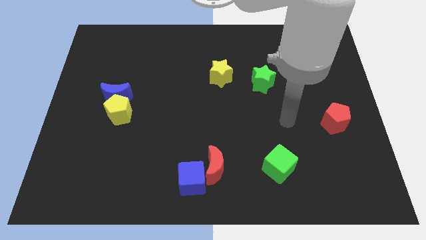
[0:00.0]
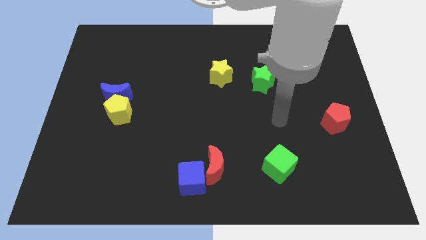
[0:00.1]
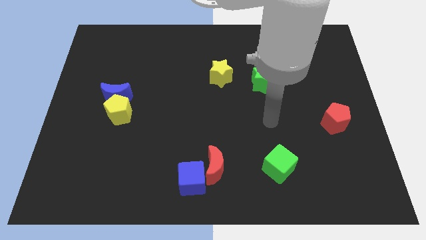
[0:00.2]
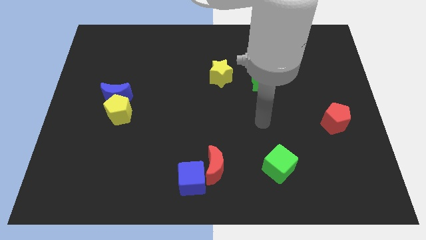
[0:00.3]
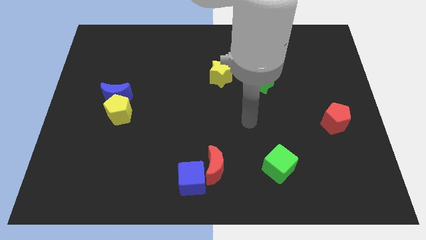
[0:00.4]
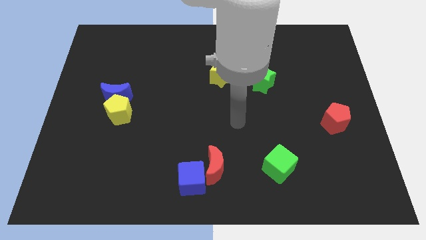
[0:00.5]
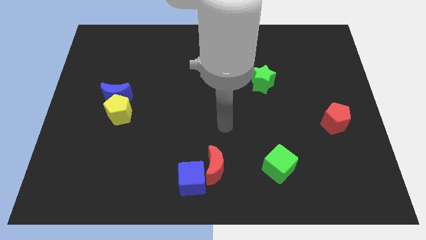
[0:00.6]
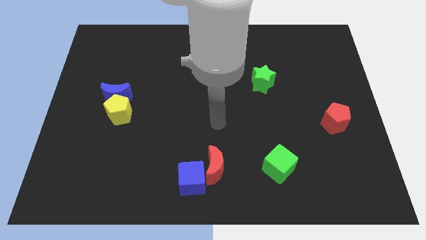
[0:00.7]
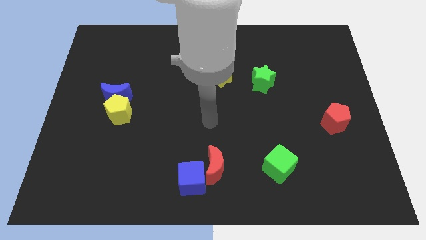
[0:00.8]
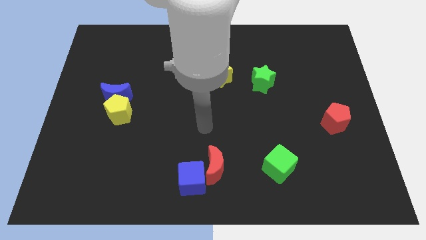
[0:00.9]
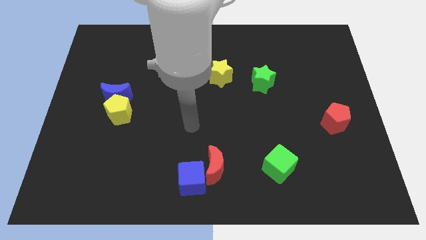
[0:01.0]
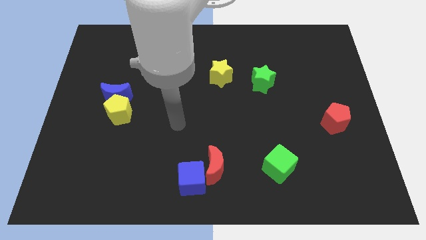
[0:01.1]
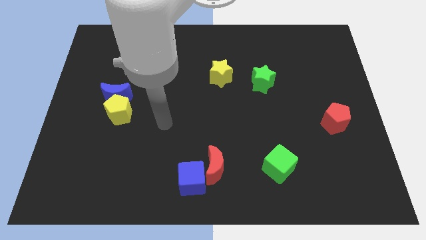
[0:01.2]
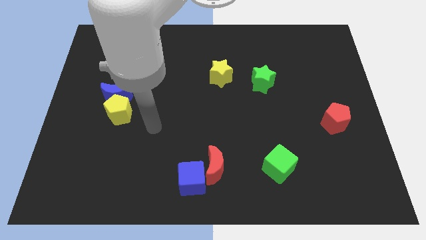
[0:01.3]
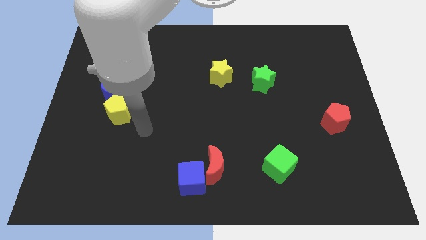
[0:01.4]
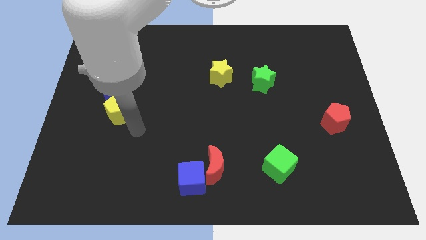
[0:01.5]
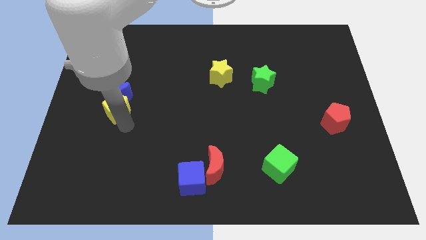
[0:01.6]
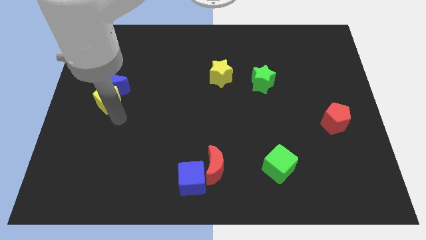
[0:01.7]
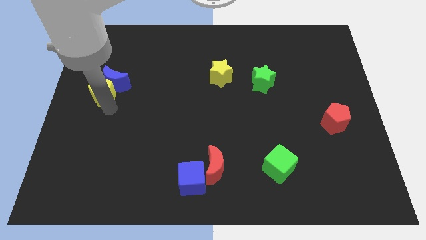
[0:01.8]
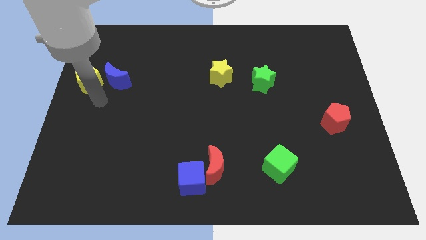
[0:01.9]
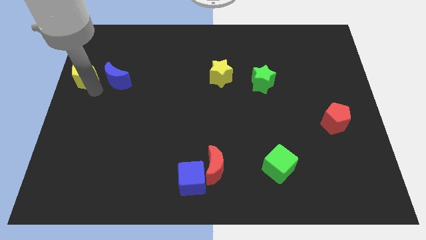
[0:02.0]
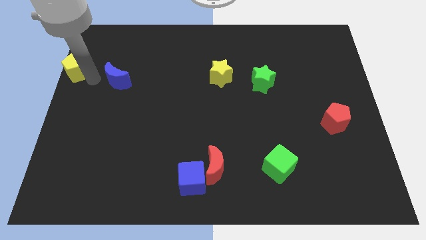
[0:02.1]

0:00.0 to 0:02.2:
move the blue moon away from the yellow pentagon

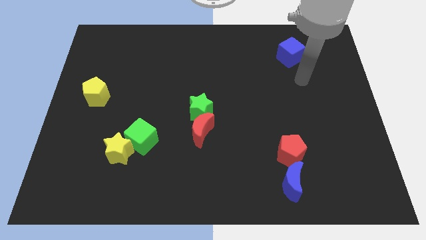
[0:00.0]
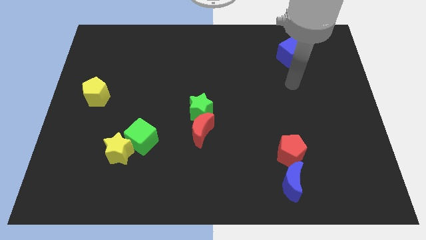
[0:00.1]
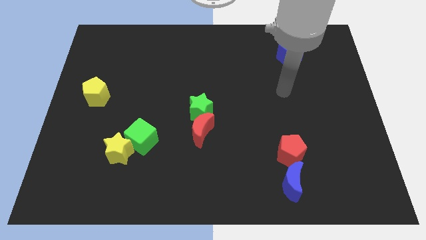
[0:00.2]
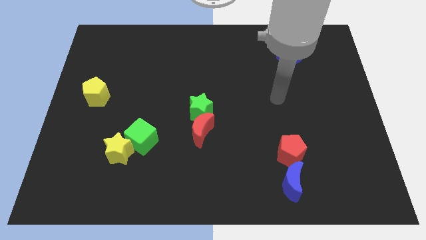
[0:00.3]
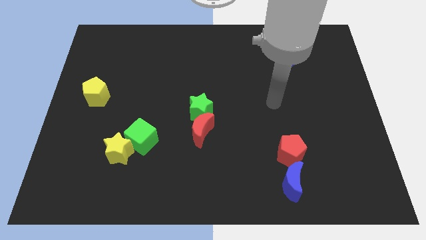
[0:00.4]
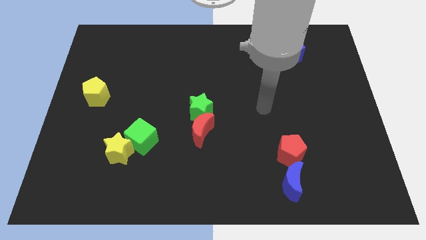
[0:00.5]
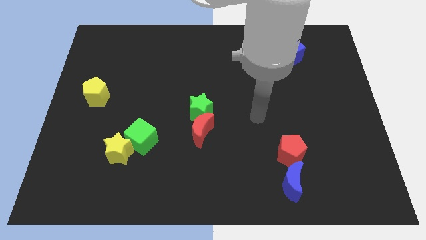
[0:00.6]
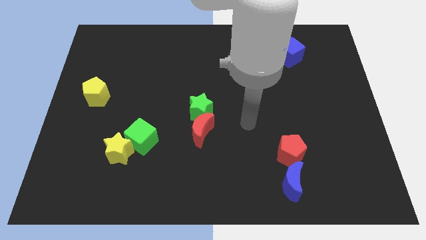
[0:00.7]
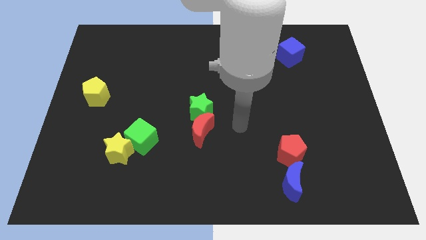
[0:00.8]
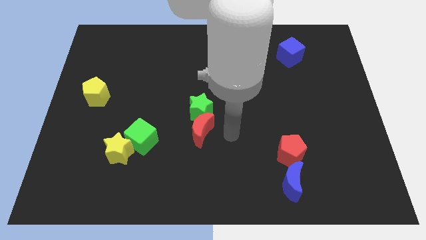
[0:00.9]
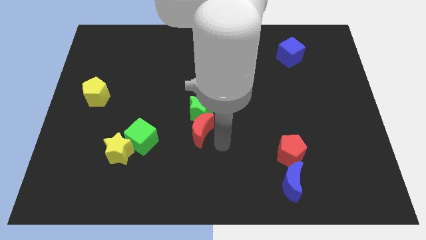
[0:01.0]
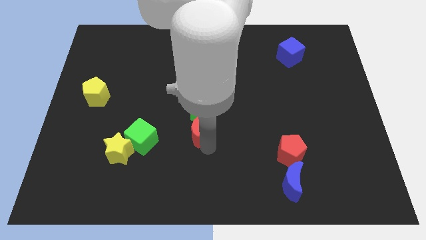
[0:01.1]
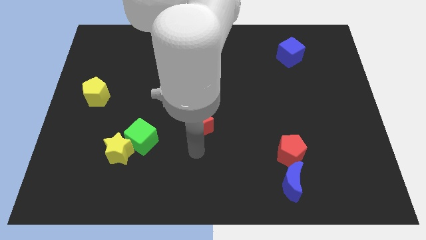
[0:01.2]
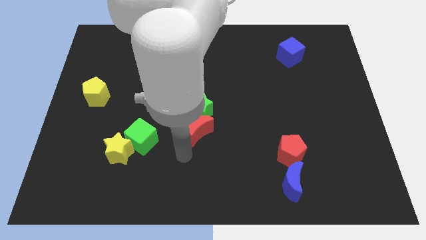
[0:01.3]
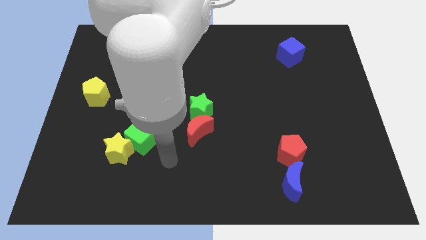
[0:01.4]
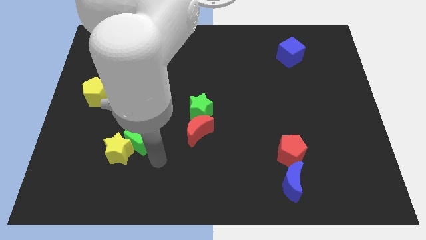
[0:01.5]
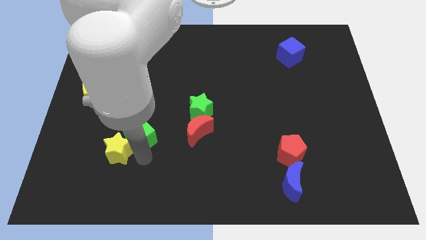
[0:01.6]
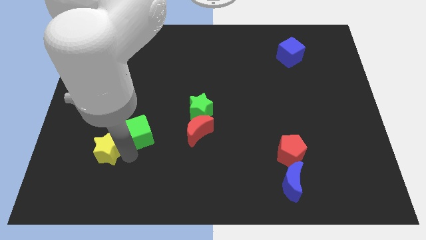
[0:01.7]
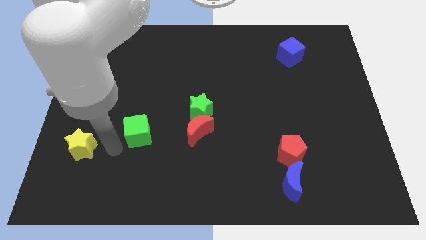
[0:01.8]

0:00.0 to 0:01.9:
separate the green cube from the yellow star

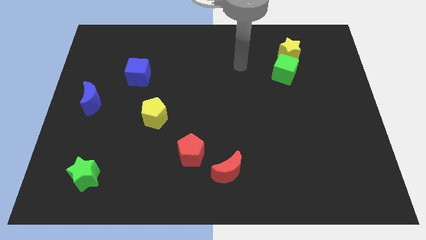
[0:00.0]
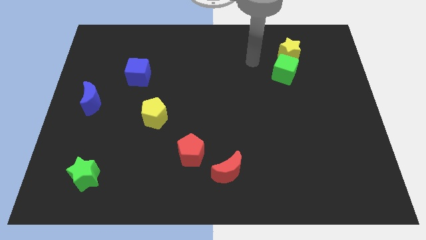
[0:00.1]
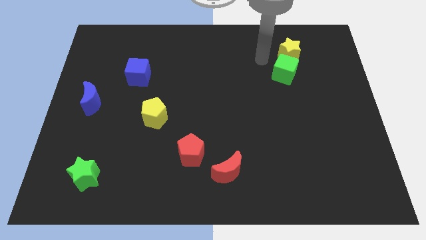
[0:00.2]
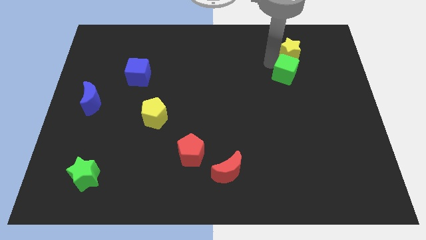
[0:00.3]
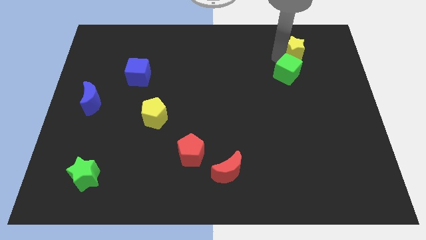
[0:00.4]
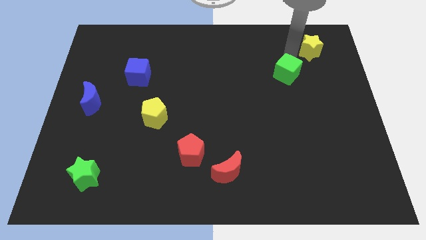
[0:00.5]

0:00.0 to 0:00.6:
move the green cube away from the yellow star

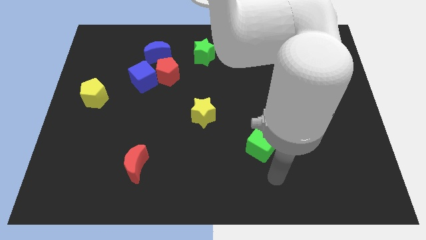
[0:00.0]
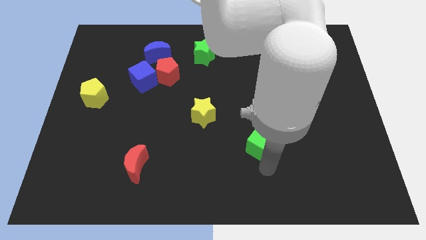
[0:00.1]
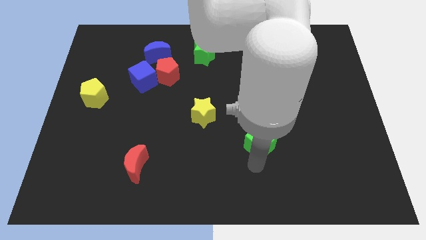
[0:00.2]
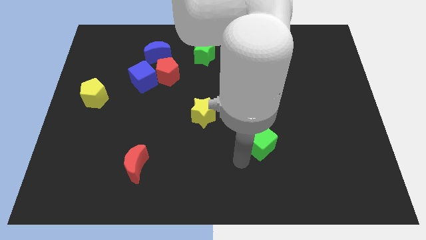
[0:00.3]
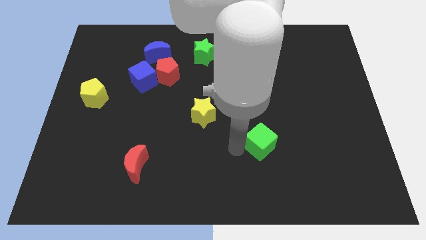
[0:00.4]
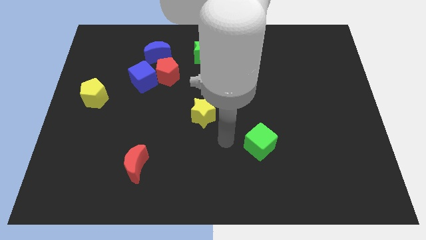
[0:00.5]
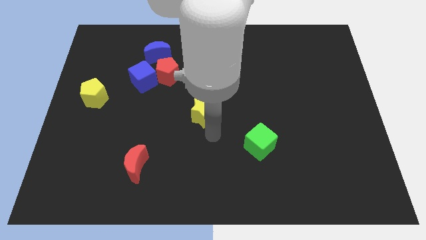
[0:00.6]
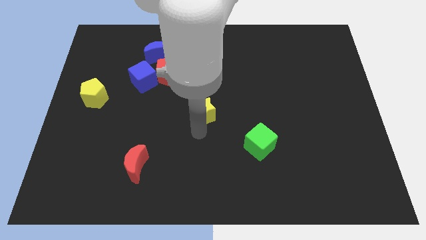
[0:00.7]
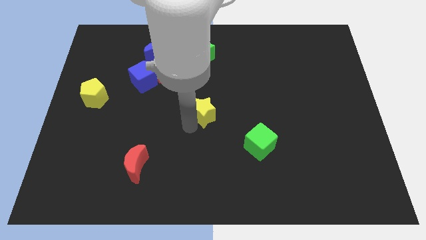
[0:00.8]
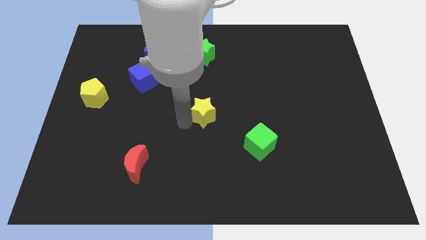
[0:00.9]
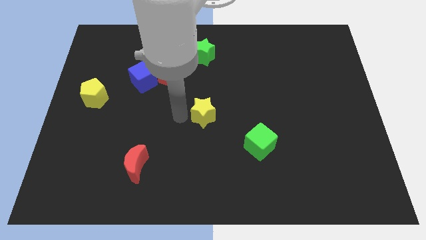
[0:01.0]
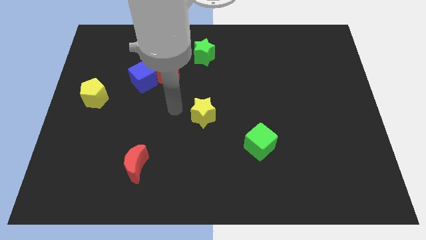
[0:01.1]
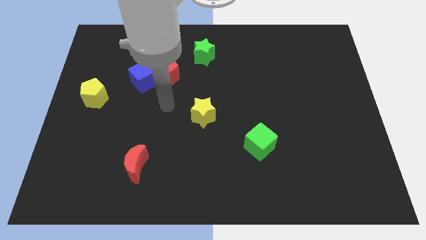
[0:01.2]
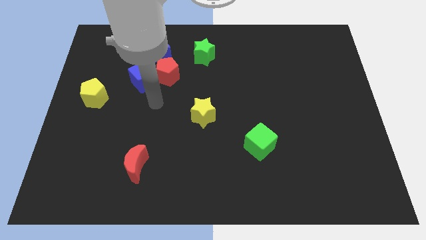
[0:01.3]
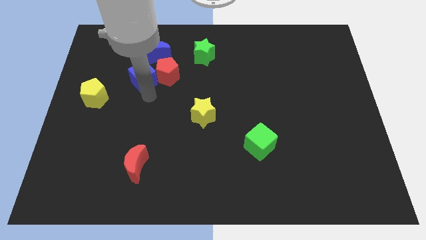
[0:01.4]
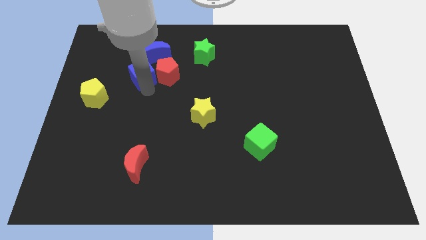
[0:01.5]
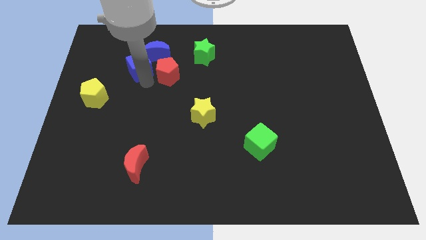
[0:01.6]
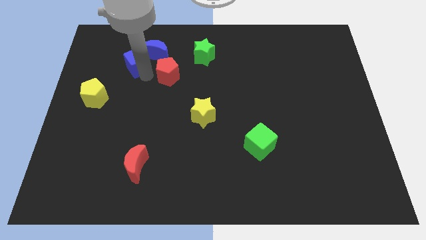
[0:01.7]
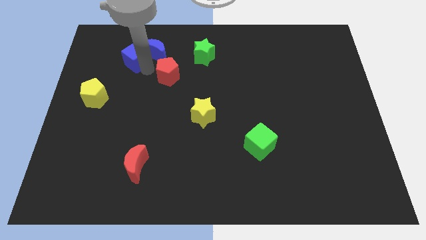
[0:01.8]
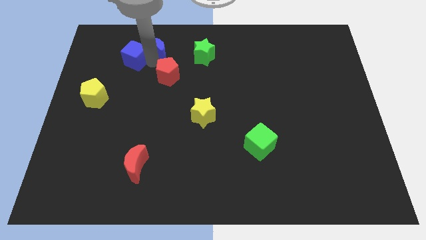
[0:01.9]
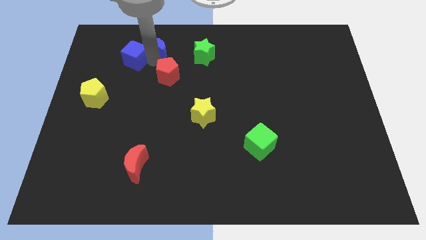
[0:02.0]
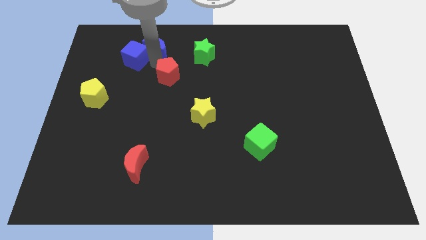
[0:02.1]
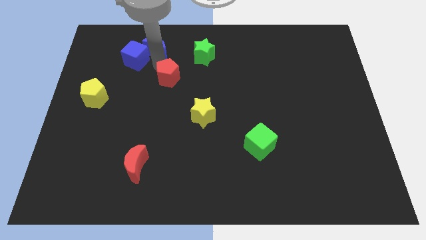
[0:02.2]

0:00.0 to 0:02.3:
pull the red pentagon apart from the blue cube and blue moon

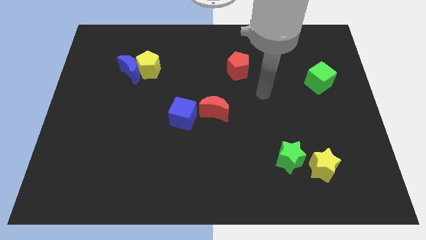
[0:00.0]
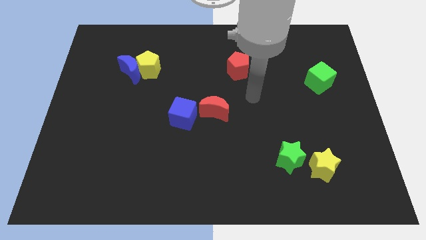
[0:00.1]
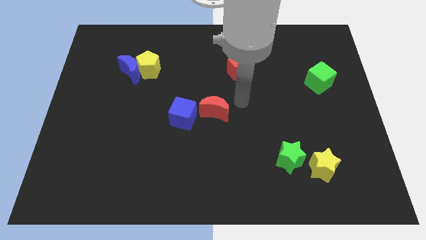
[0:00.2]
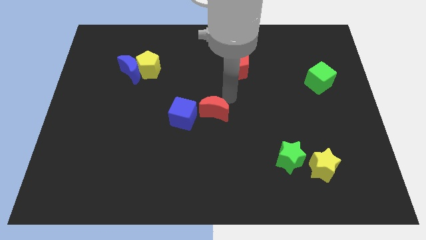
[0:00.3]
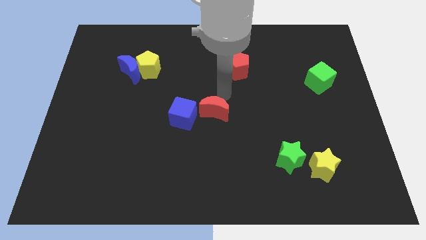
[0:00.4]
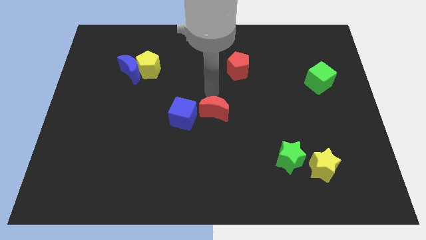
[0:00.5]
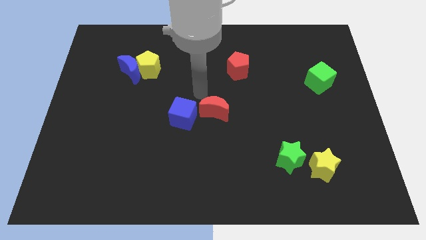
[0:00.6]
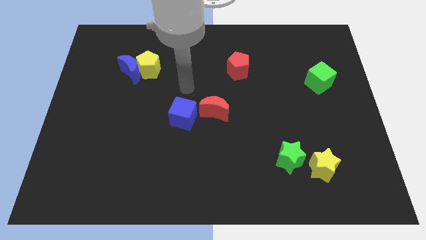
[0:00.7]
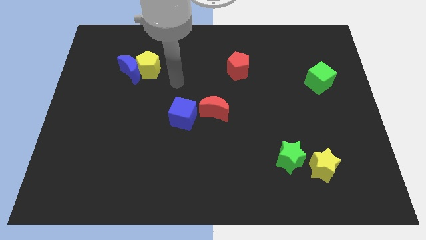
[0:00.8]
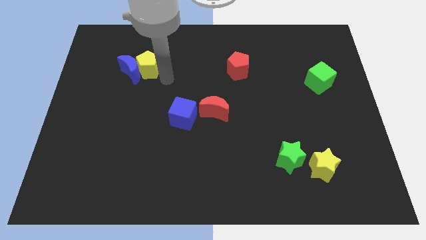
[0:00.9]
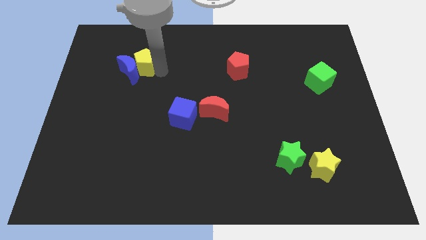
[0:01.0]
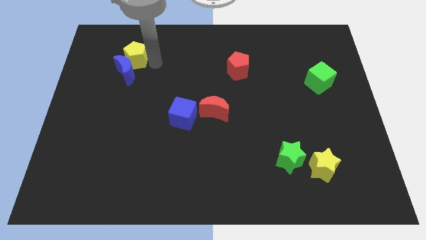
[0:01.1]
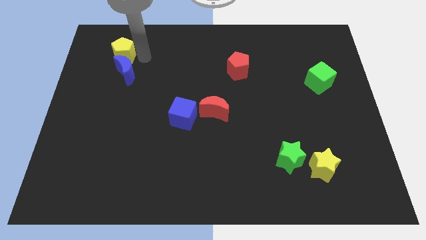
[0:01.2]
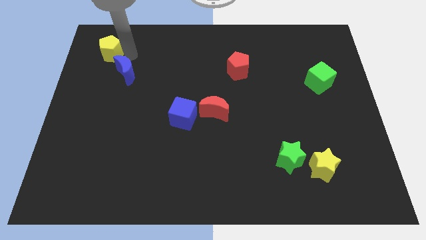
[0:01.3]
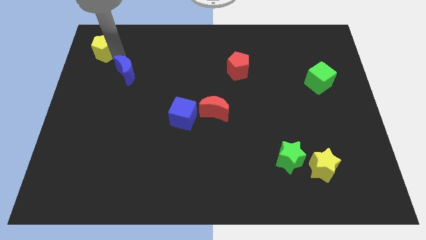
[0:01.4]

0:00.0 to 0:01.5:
separate the blue moon from the yellow pentagon

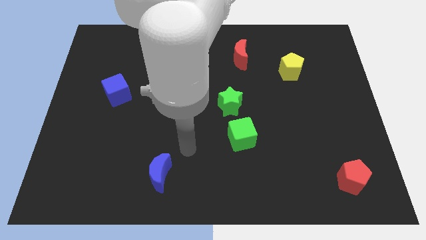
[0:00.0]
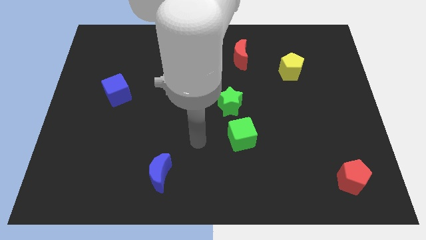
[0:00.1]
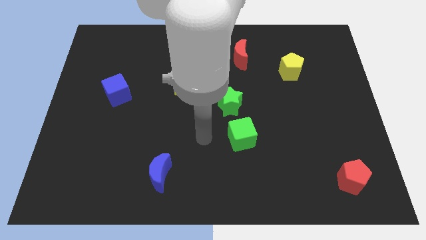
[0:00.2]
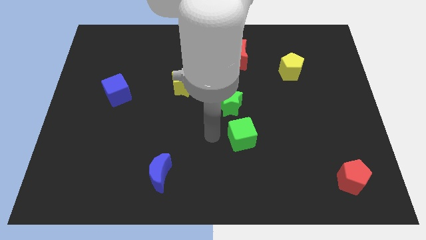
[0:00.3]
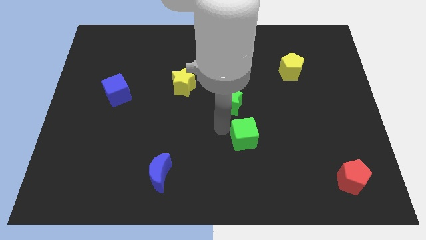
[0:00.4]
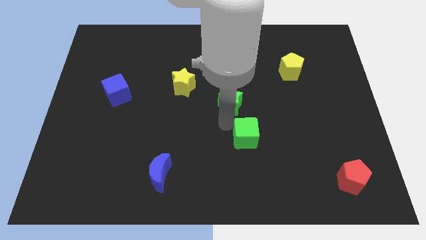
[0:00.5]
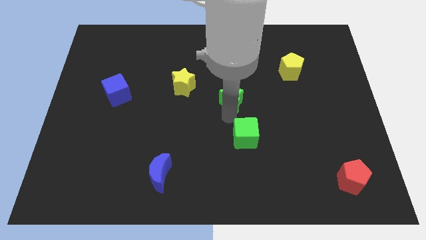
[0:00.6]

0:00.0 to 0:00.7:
pull the green cube apart from the green star

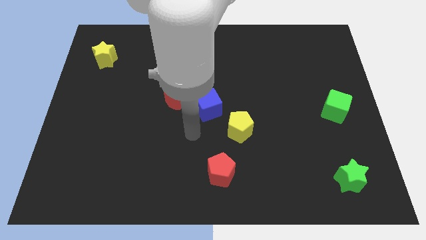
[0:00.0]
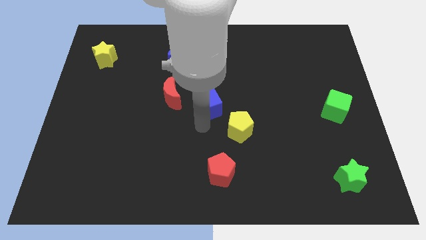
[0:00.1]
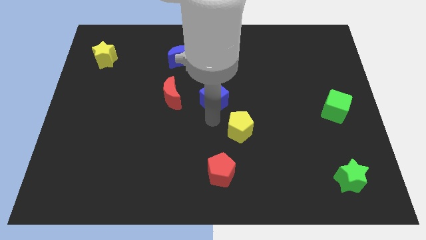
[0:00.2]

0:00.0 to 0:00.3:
move the yellow pentagon away from the blue cube
